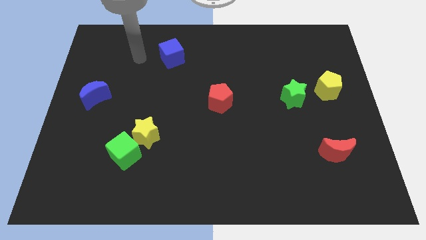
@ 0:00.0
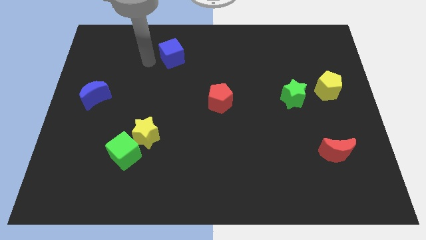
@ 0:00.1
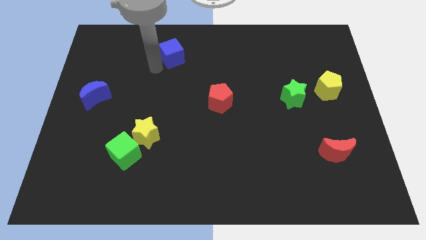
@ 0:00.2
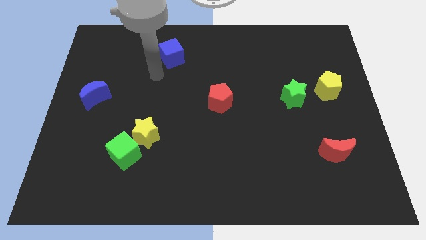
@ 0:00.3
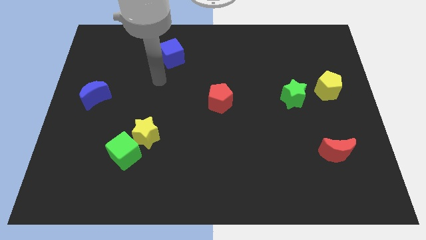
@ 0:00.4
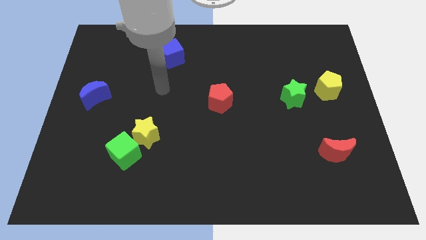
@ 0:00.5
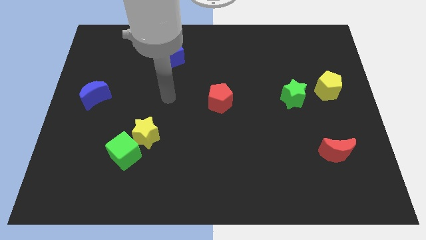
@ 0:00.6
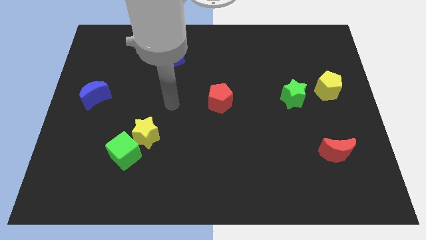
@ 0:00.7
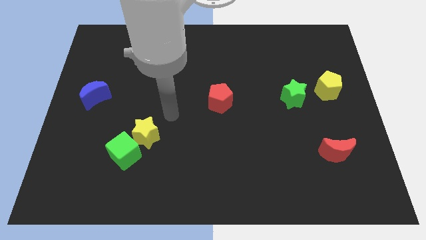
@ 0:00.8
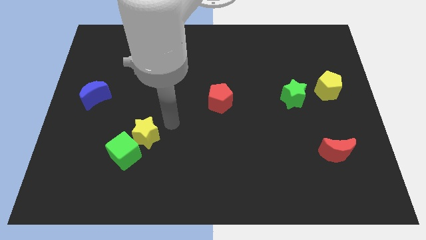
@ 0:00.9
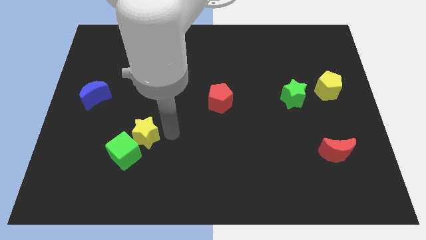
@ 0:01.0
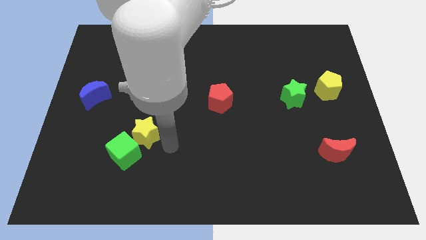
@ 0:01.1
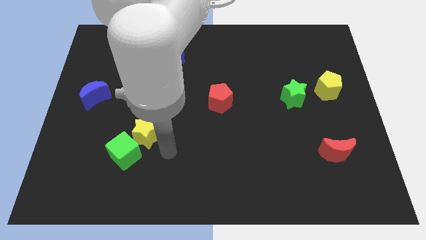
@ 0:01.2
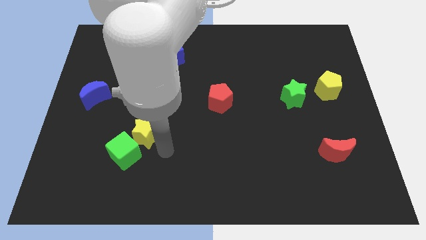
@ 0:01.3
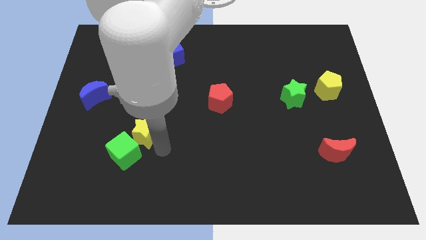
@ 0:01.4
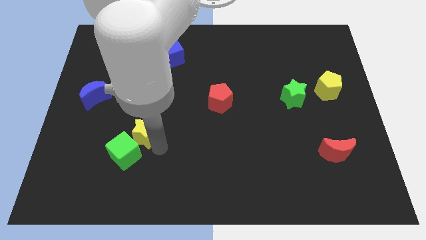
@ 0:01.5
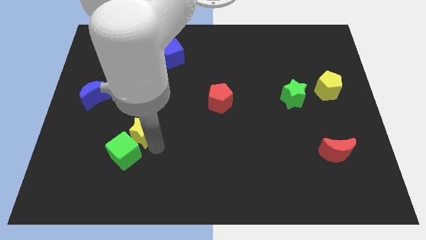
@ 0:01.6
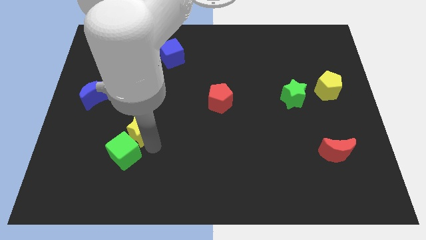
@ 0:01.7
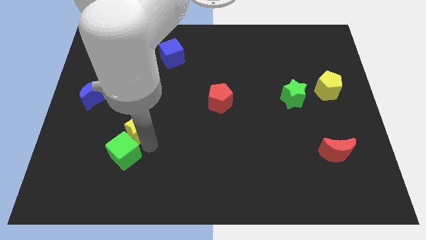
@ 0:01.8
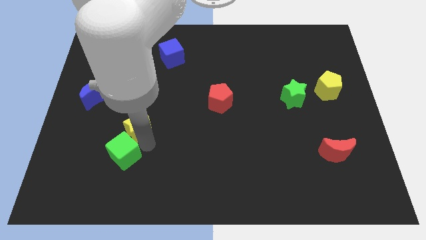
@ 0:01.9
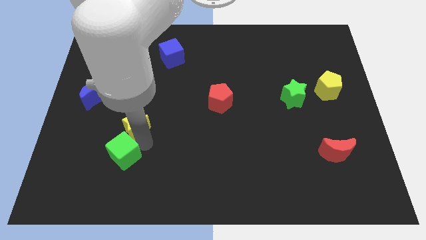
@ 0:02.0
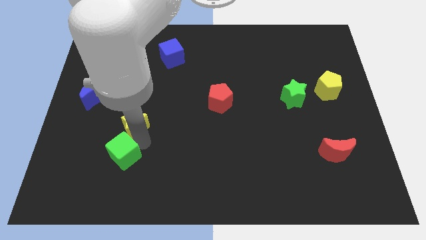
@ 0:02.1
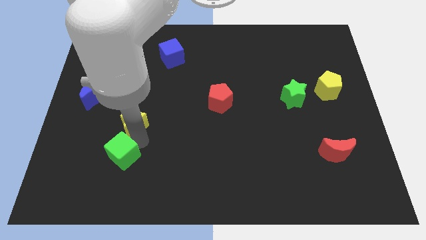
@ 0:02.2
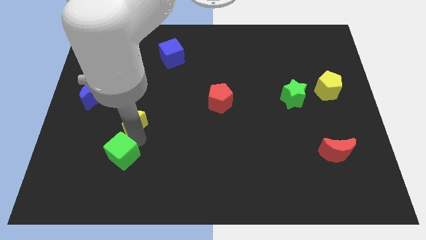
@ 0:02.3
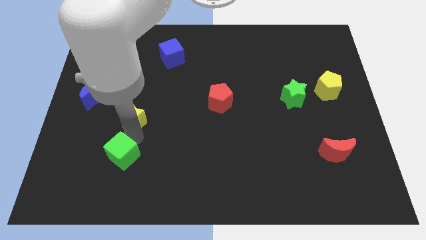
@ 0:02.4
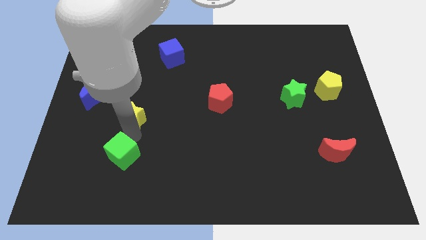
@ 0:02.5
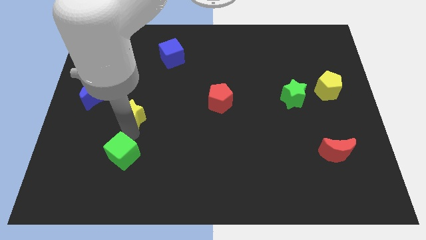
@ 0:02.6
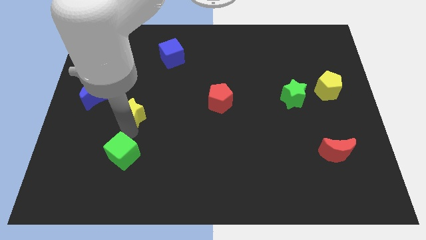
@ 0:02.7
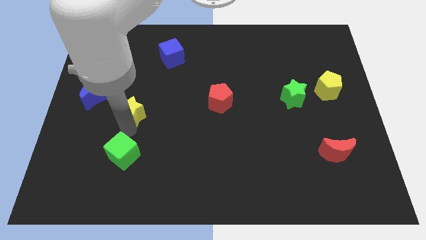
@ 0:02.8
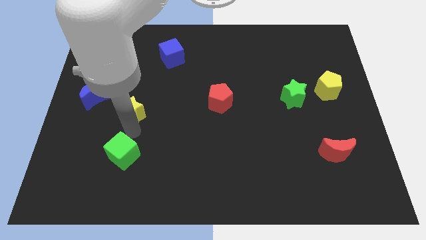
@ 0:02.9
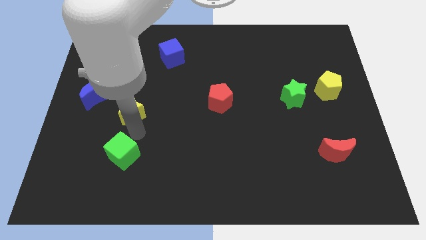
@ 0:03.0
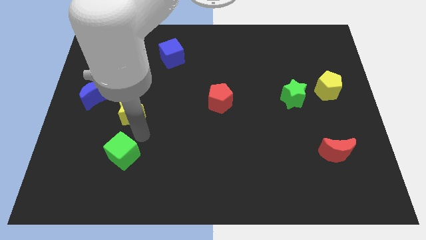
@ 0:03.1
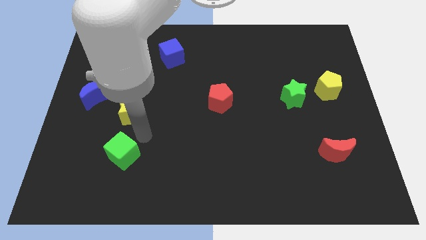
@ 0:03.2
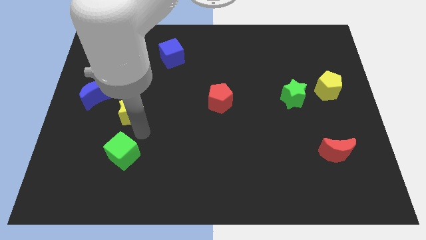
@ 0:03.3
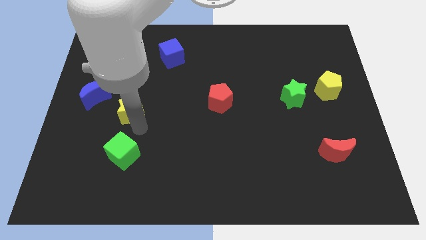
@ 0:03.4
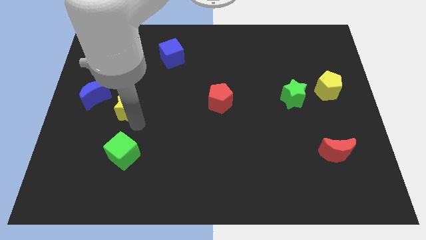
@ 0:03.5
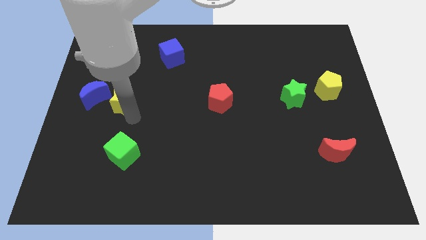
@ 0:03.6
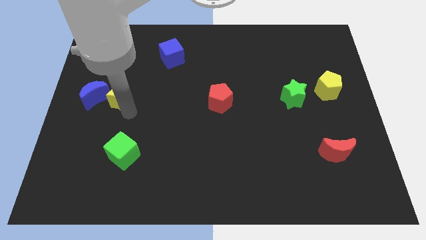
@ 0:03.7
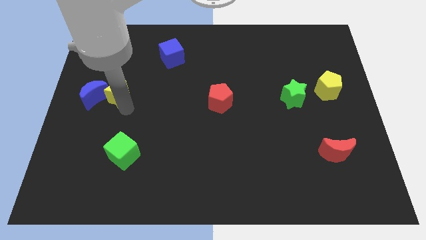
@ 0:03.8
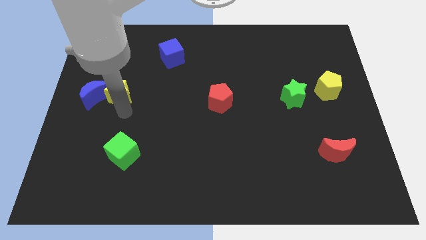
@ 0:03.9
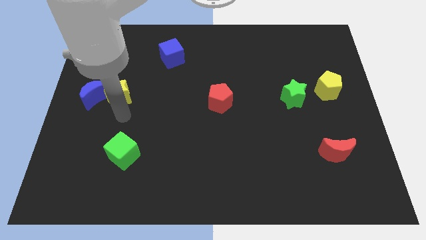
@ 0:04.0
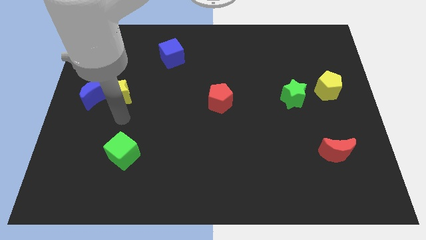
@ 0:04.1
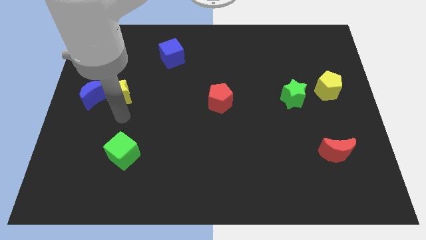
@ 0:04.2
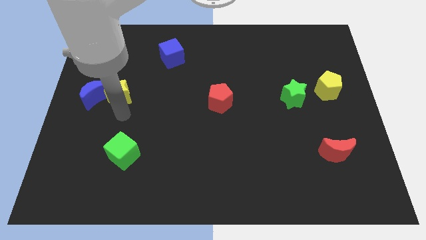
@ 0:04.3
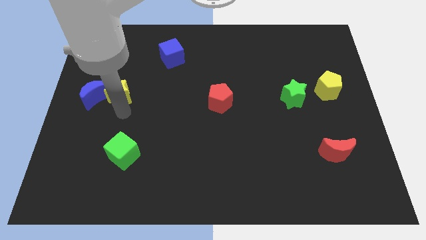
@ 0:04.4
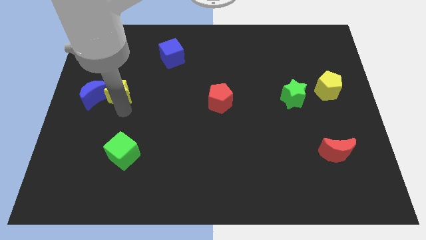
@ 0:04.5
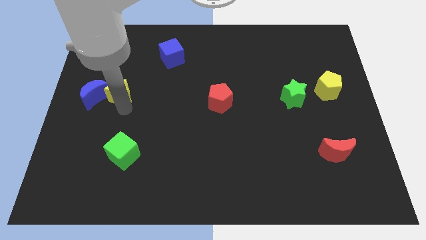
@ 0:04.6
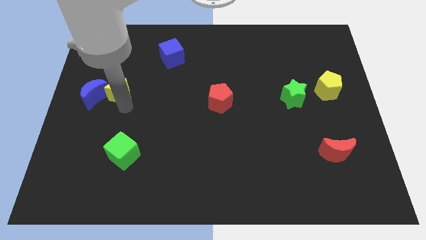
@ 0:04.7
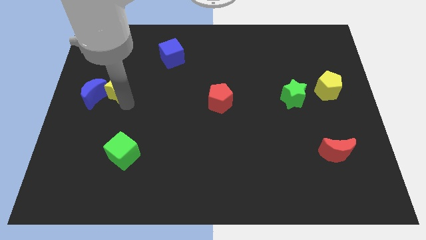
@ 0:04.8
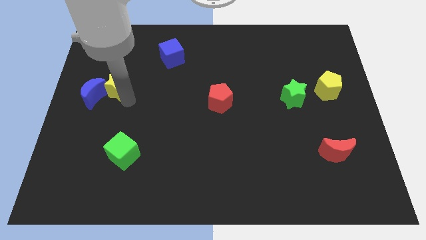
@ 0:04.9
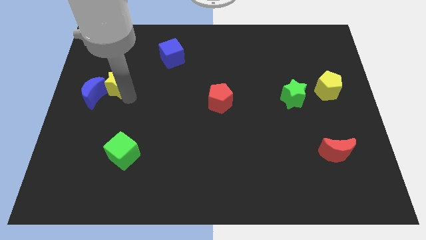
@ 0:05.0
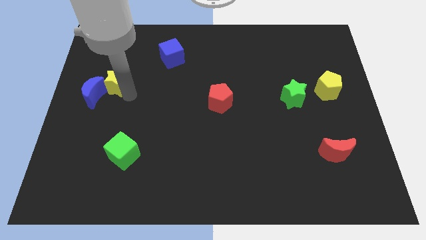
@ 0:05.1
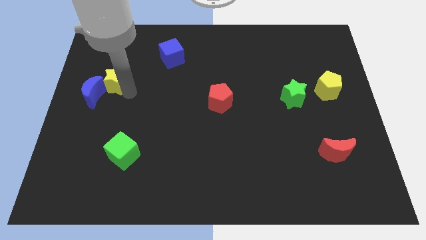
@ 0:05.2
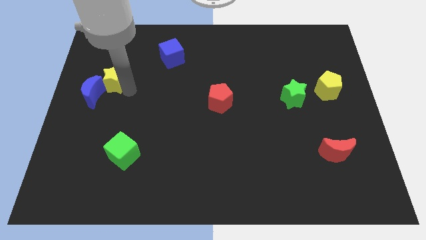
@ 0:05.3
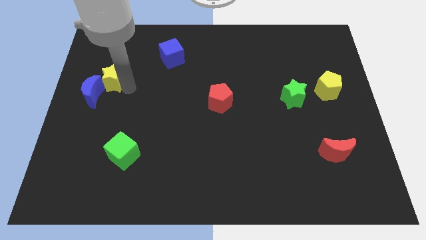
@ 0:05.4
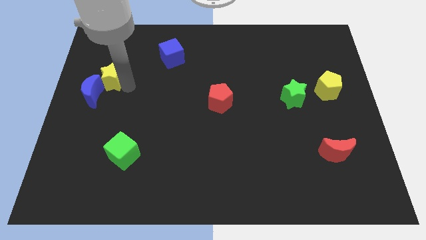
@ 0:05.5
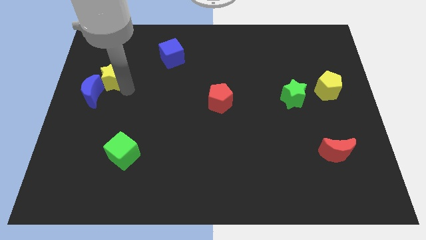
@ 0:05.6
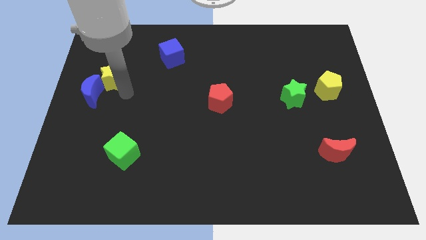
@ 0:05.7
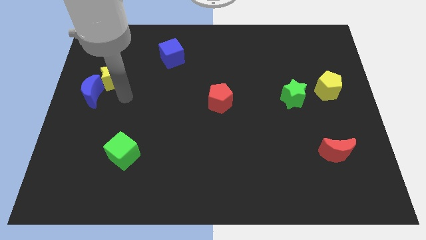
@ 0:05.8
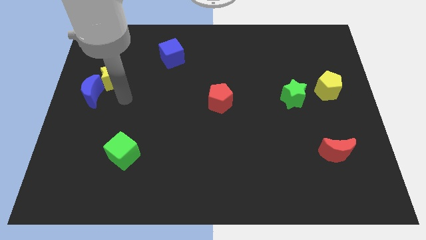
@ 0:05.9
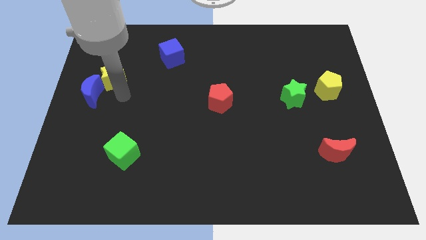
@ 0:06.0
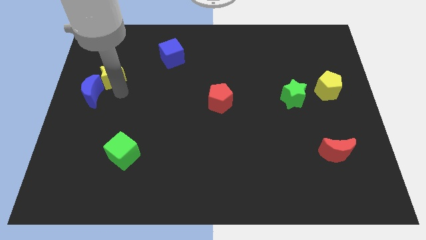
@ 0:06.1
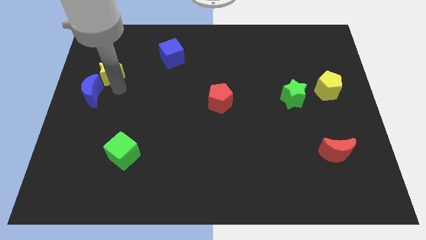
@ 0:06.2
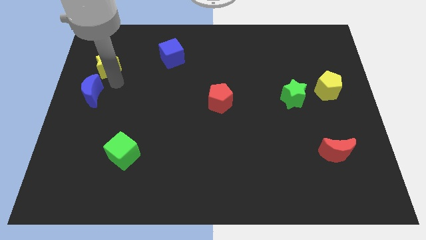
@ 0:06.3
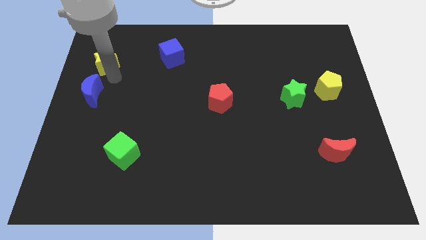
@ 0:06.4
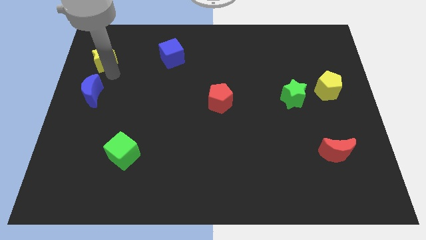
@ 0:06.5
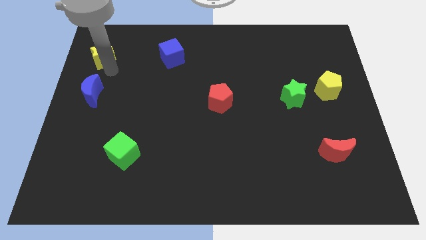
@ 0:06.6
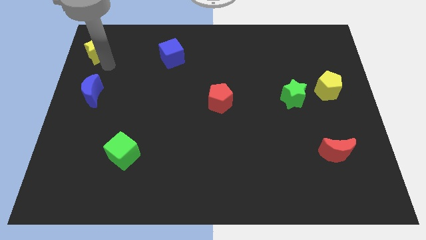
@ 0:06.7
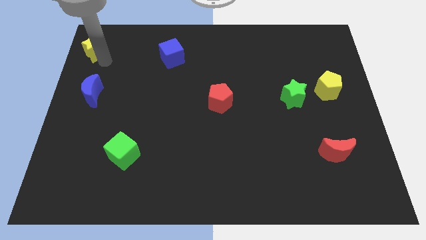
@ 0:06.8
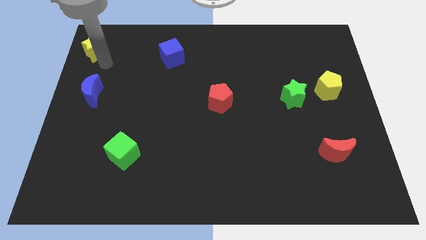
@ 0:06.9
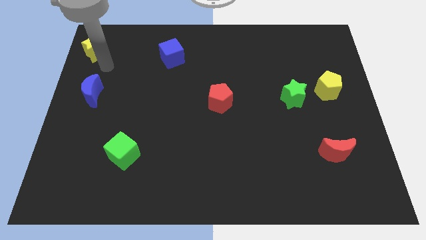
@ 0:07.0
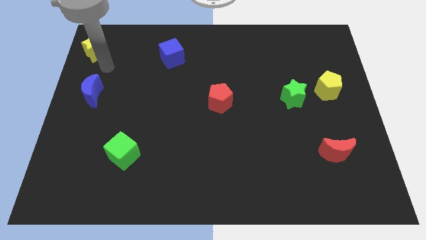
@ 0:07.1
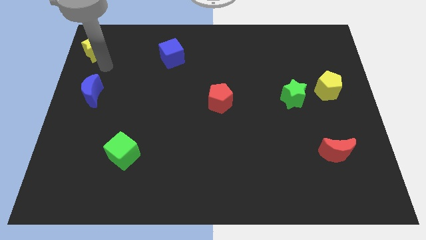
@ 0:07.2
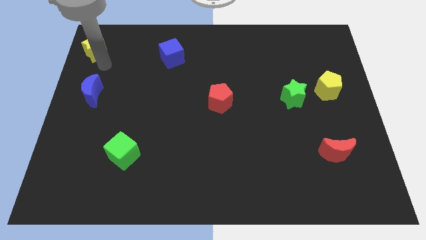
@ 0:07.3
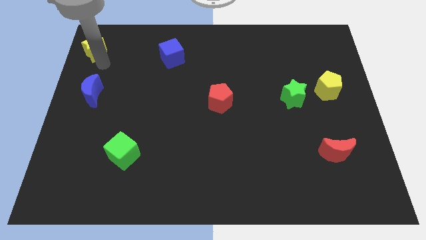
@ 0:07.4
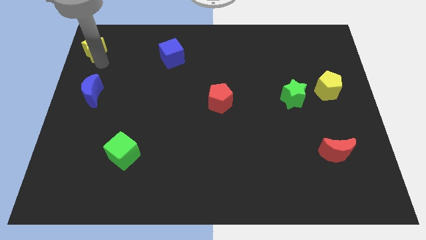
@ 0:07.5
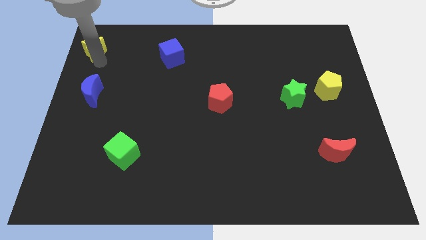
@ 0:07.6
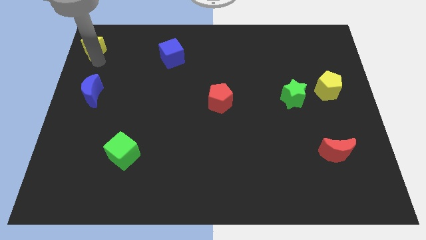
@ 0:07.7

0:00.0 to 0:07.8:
slide the yellow star to the top left of the board
